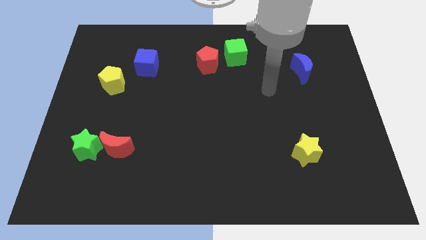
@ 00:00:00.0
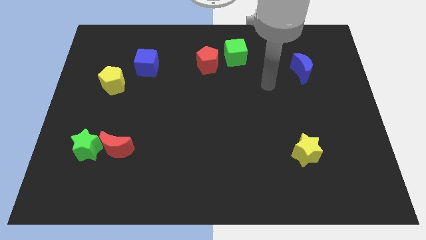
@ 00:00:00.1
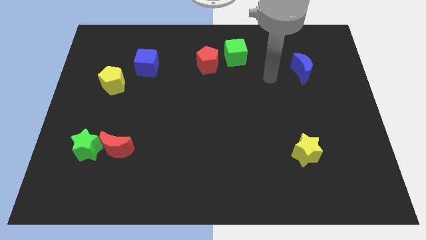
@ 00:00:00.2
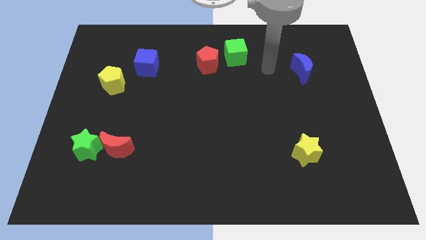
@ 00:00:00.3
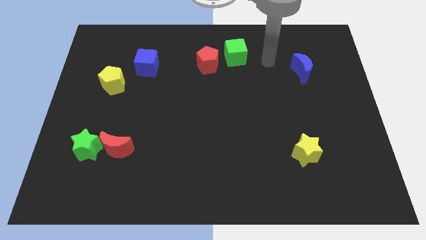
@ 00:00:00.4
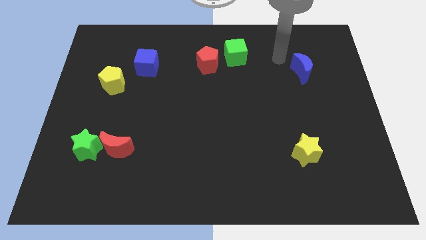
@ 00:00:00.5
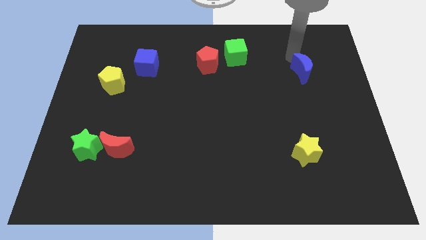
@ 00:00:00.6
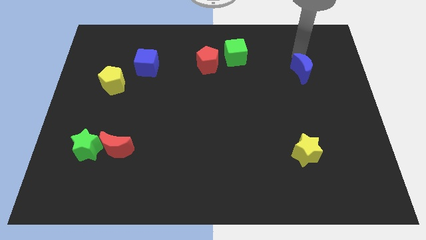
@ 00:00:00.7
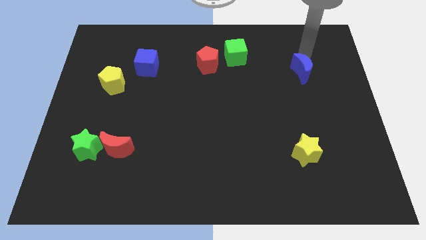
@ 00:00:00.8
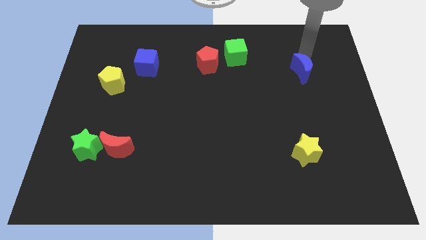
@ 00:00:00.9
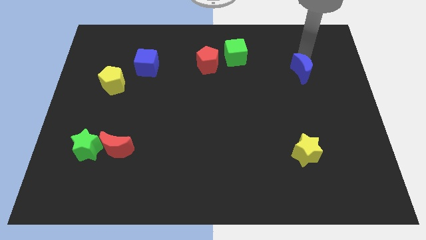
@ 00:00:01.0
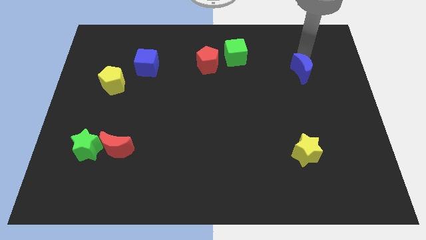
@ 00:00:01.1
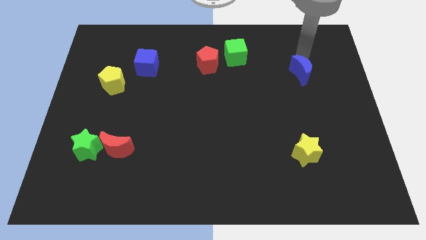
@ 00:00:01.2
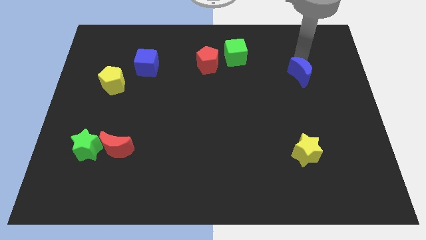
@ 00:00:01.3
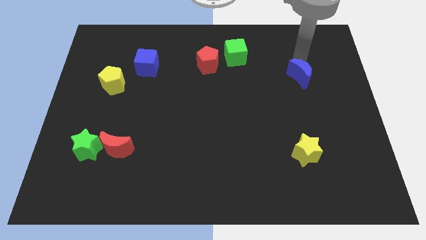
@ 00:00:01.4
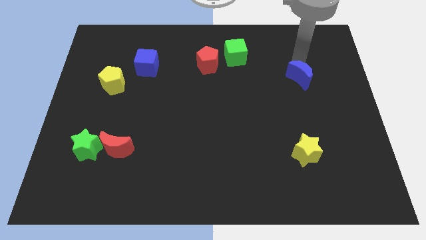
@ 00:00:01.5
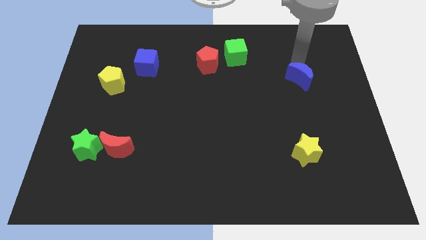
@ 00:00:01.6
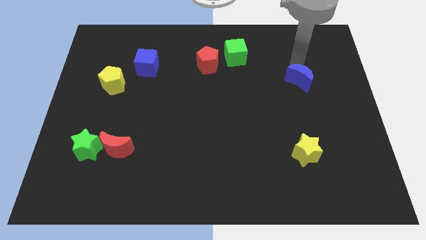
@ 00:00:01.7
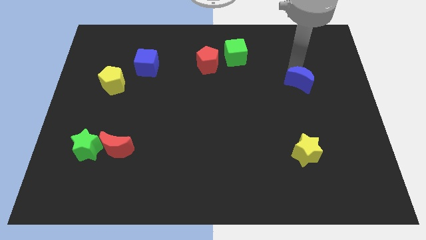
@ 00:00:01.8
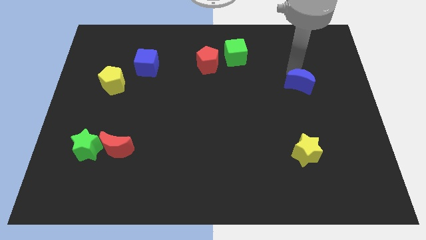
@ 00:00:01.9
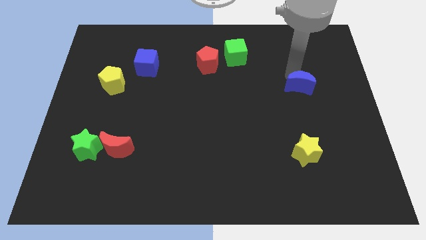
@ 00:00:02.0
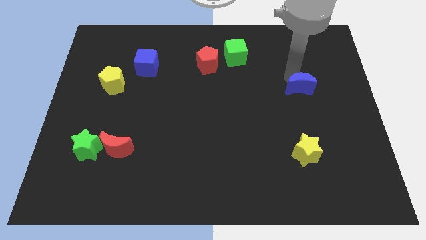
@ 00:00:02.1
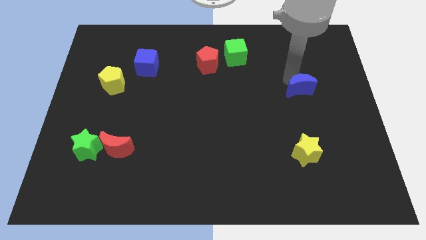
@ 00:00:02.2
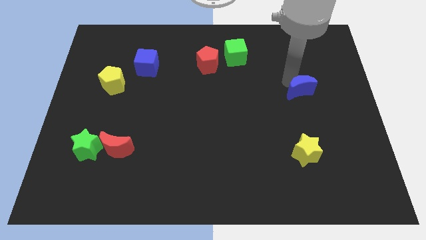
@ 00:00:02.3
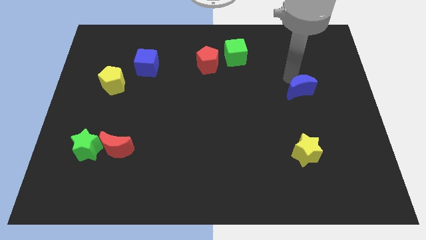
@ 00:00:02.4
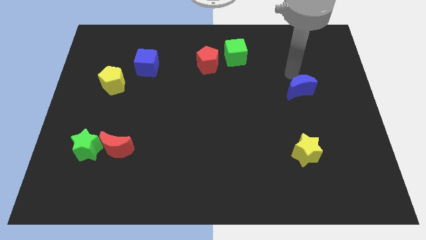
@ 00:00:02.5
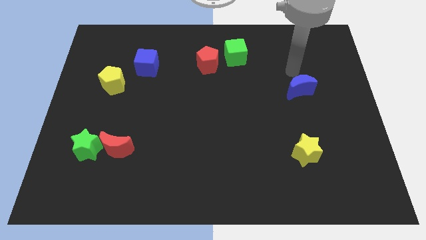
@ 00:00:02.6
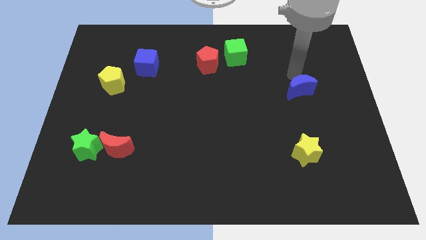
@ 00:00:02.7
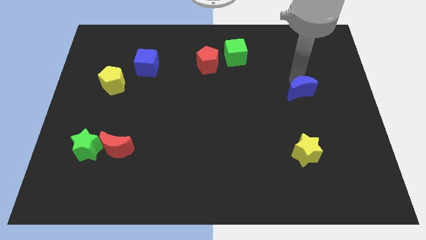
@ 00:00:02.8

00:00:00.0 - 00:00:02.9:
slightly push the blue moon downwards

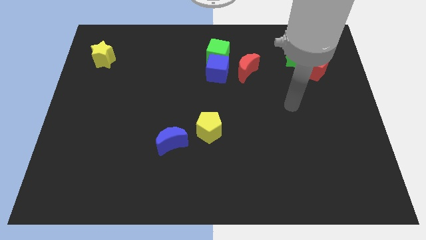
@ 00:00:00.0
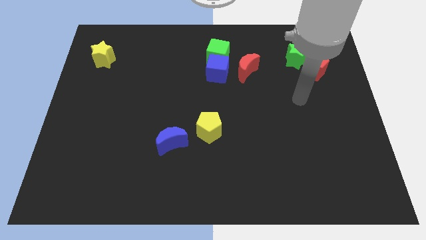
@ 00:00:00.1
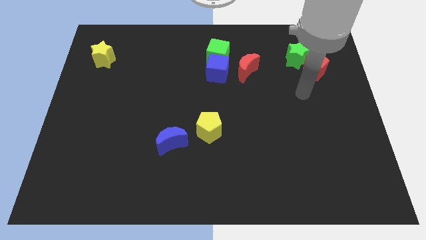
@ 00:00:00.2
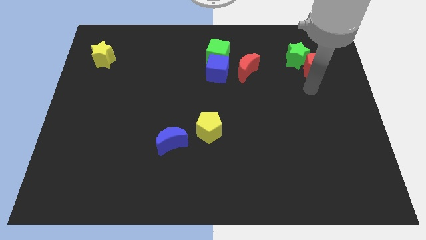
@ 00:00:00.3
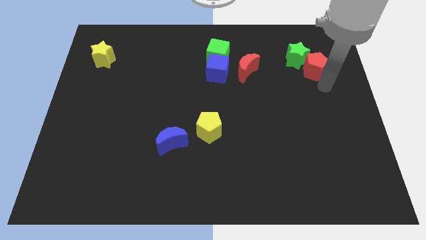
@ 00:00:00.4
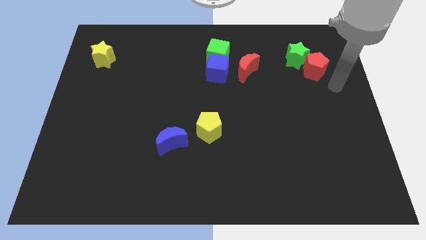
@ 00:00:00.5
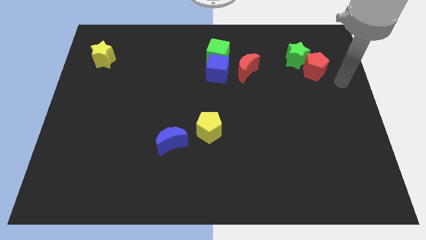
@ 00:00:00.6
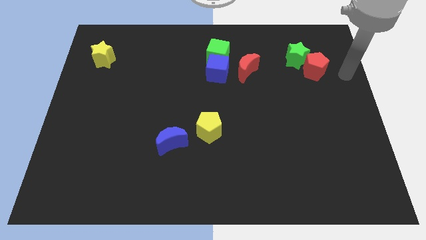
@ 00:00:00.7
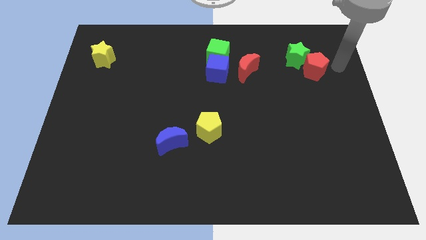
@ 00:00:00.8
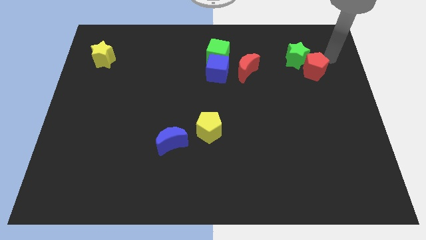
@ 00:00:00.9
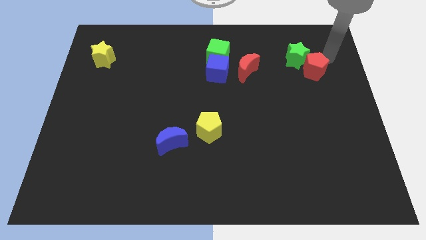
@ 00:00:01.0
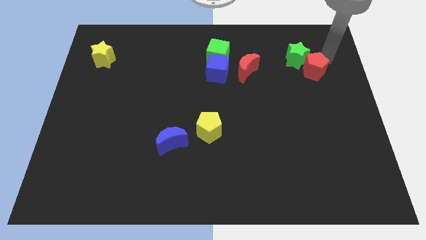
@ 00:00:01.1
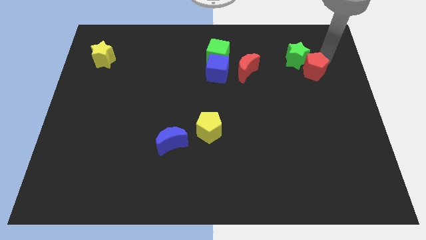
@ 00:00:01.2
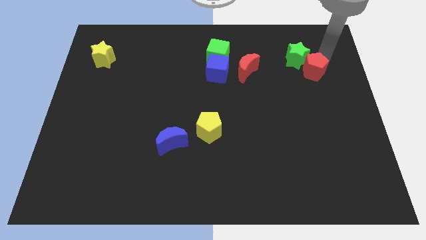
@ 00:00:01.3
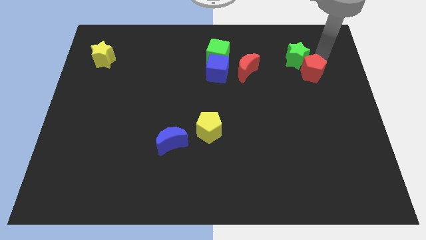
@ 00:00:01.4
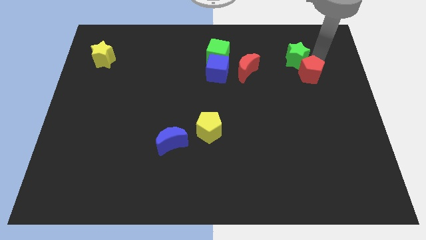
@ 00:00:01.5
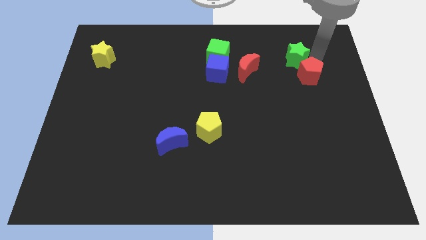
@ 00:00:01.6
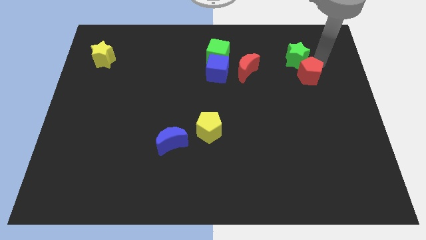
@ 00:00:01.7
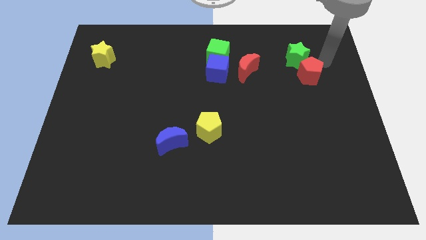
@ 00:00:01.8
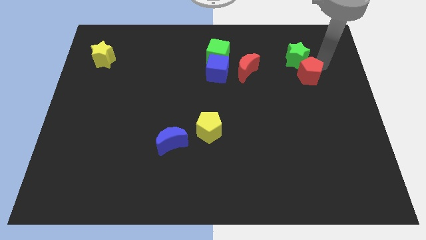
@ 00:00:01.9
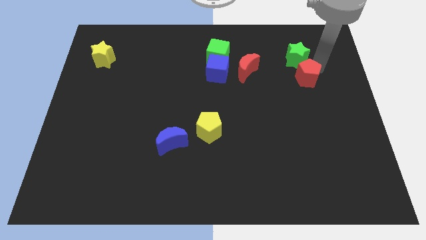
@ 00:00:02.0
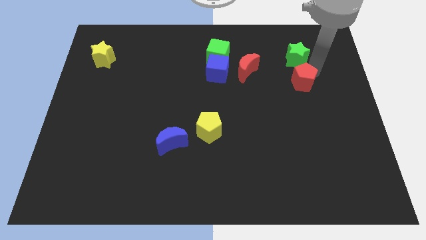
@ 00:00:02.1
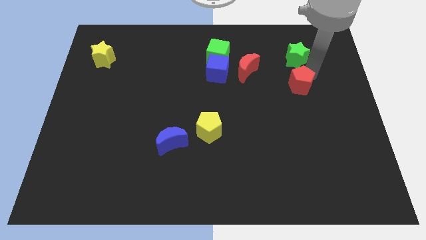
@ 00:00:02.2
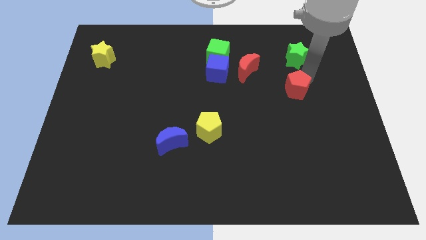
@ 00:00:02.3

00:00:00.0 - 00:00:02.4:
move the red pentagon a bit downwards and left diagonally

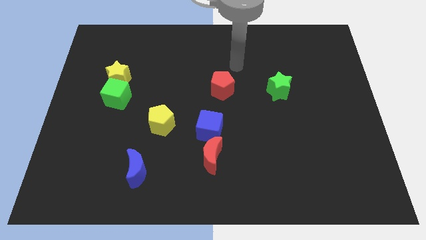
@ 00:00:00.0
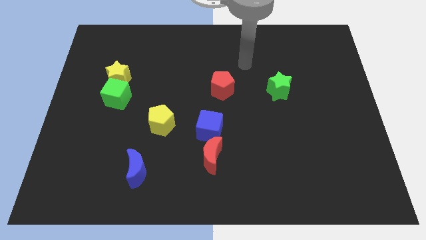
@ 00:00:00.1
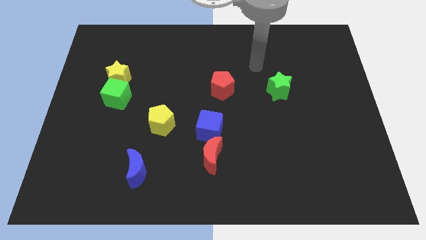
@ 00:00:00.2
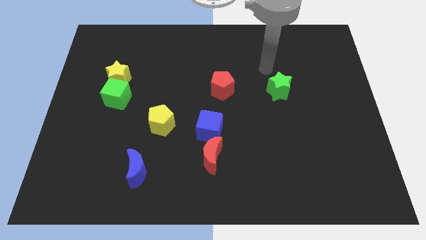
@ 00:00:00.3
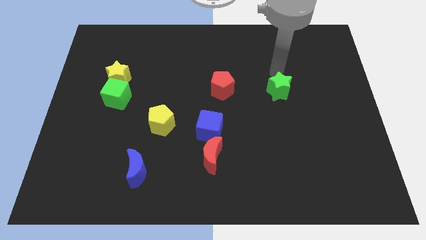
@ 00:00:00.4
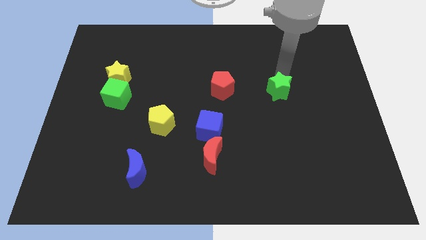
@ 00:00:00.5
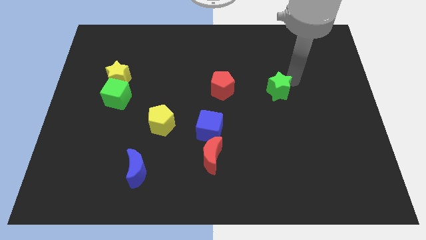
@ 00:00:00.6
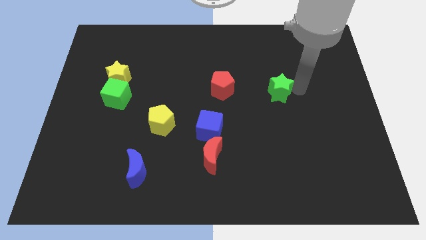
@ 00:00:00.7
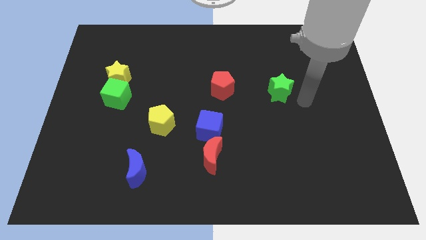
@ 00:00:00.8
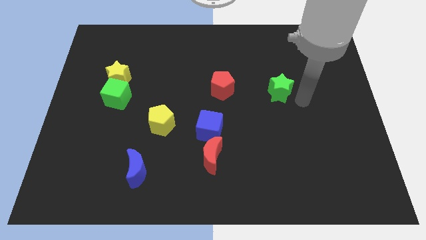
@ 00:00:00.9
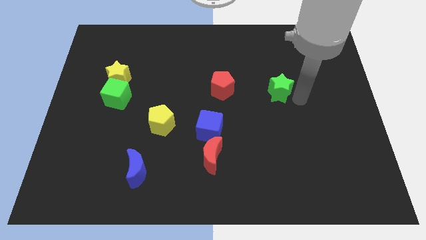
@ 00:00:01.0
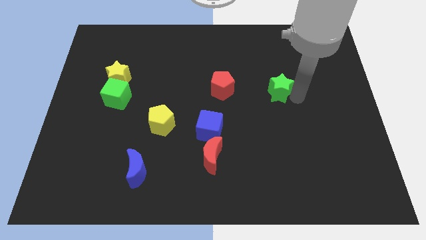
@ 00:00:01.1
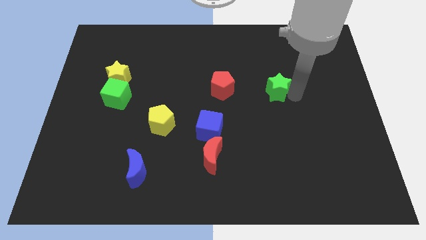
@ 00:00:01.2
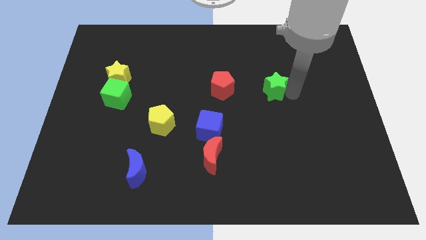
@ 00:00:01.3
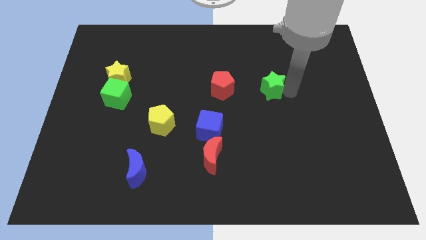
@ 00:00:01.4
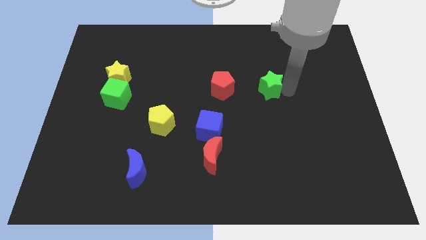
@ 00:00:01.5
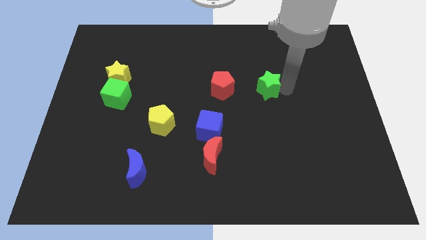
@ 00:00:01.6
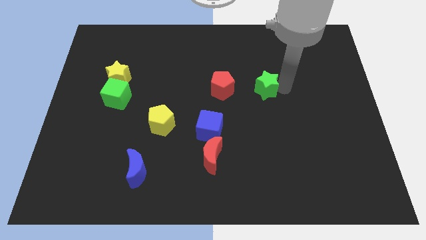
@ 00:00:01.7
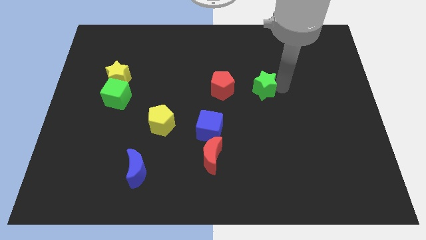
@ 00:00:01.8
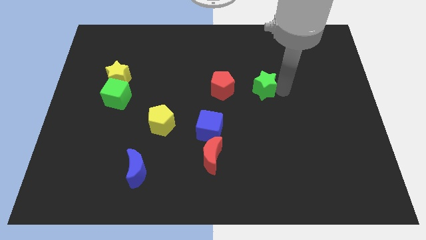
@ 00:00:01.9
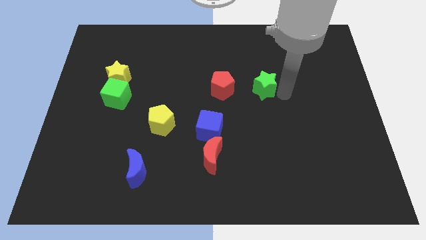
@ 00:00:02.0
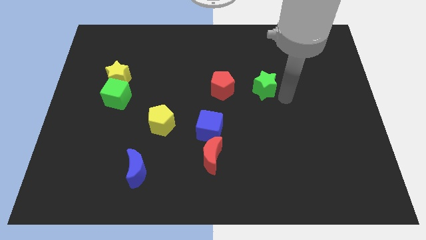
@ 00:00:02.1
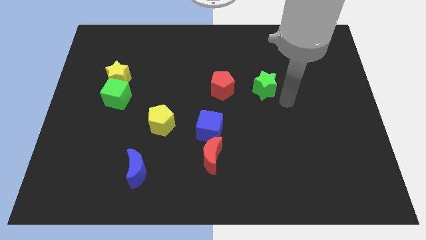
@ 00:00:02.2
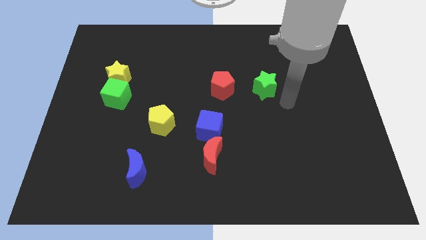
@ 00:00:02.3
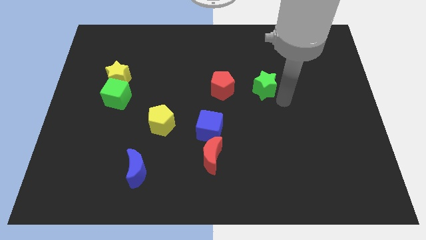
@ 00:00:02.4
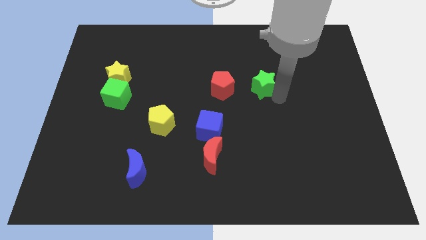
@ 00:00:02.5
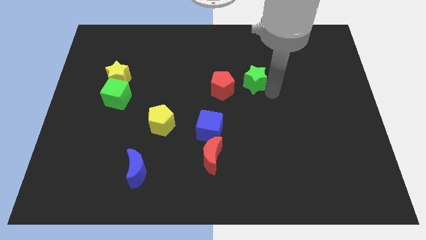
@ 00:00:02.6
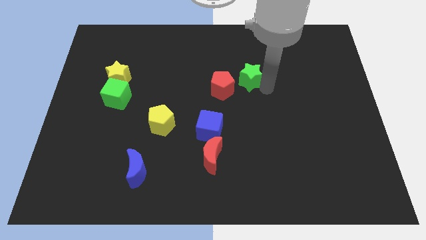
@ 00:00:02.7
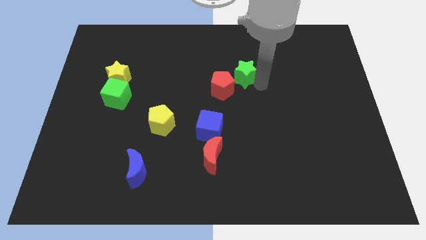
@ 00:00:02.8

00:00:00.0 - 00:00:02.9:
move the green star to the left a little bit
